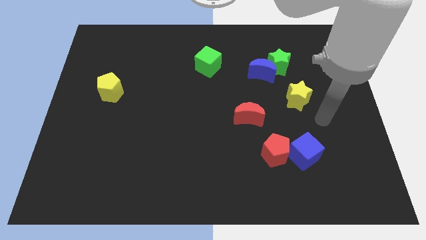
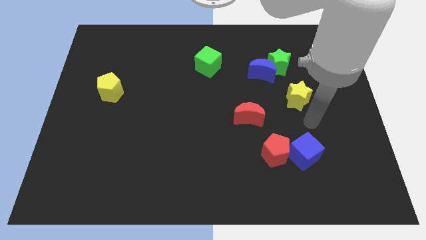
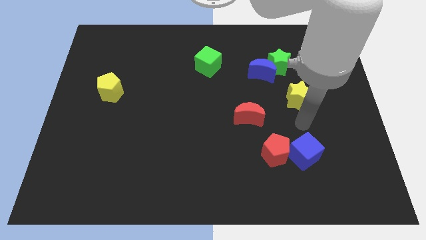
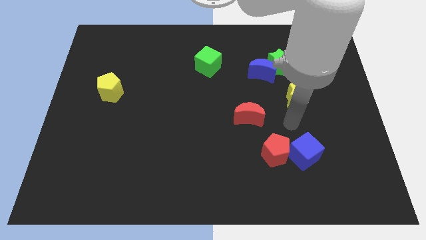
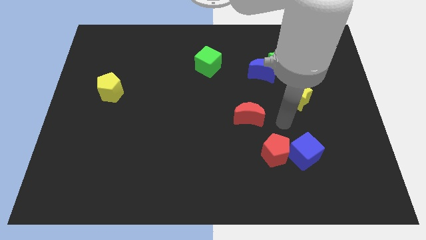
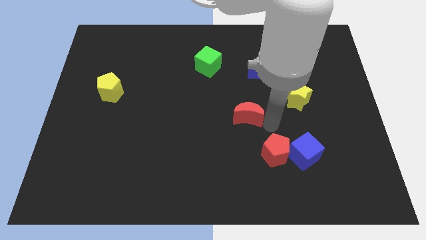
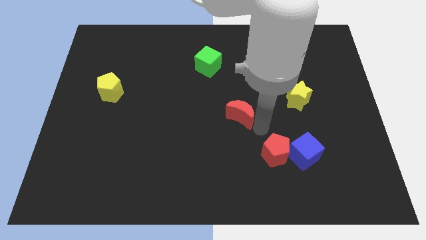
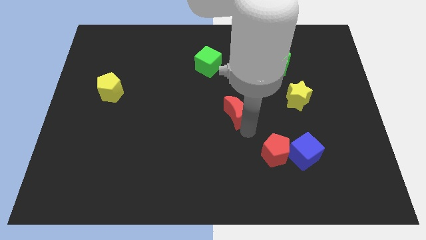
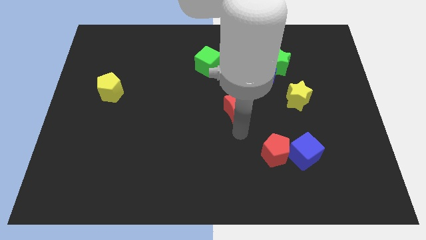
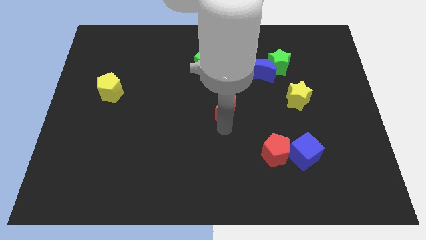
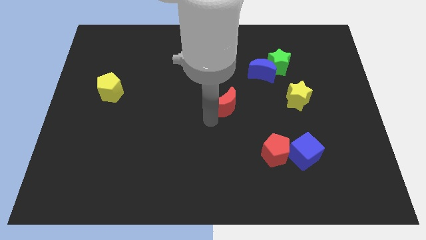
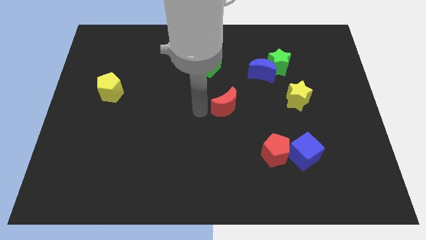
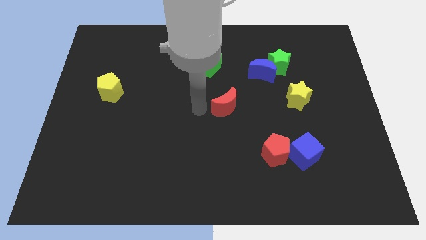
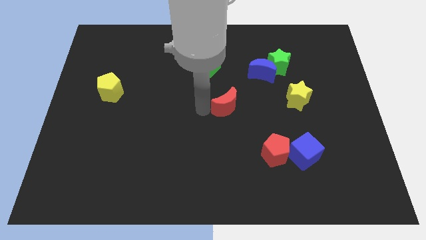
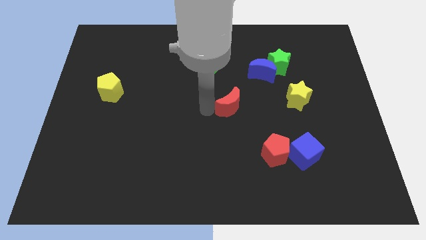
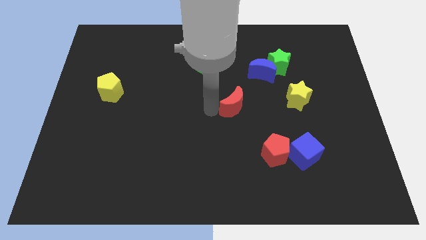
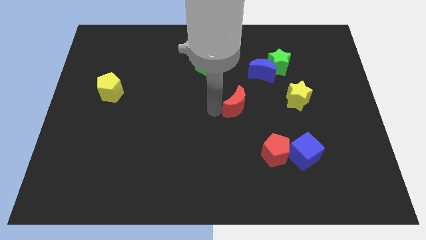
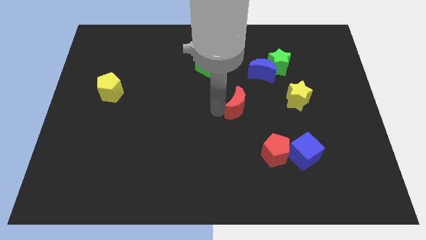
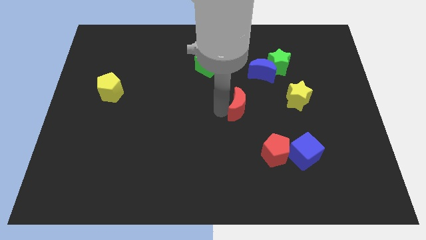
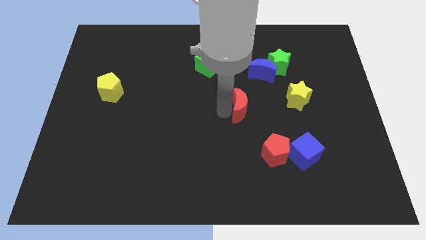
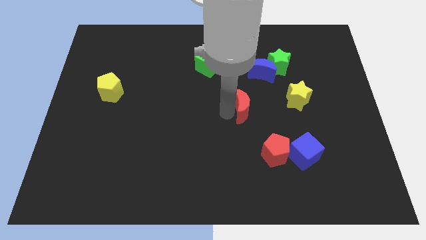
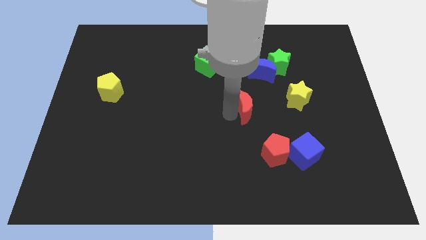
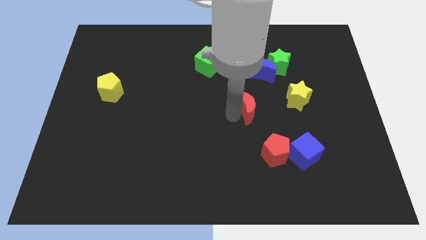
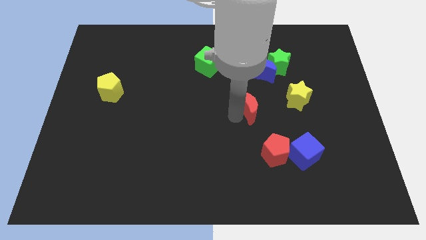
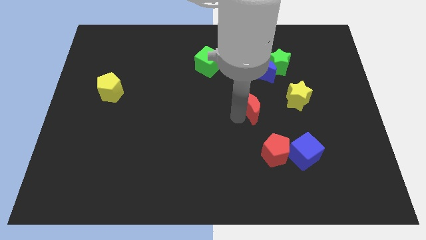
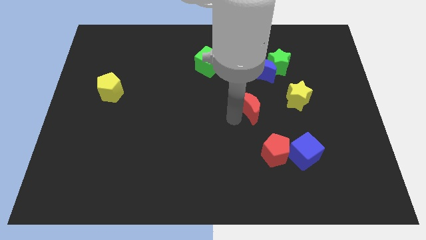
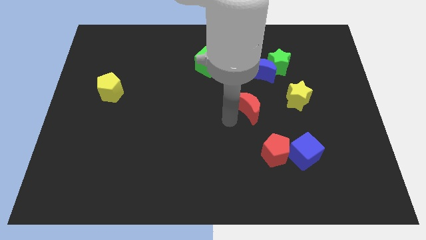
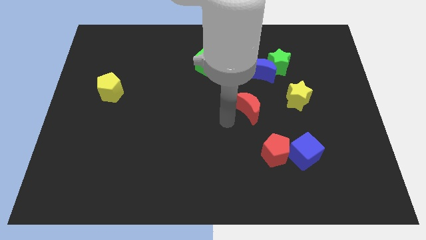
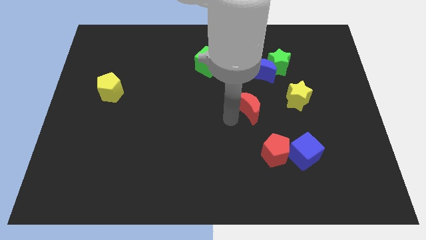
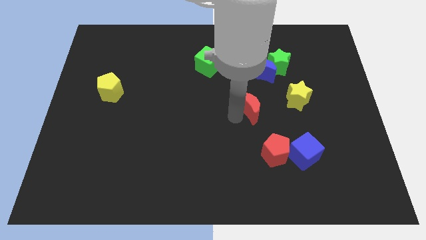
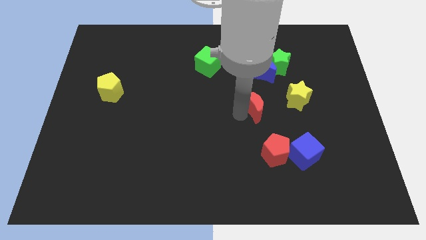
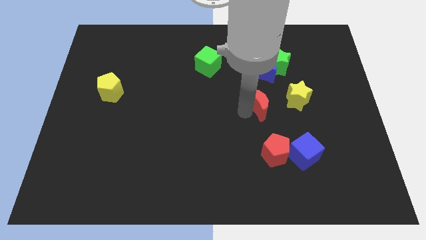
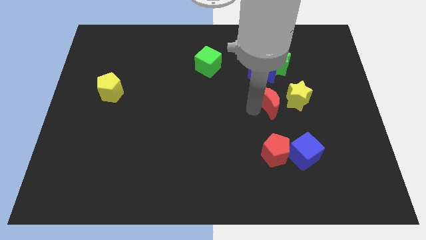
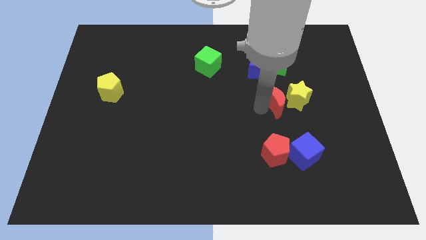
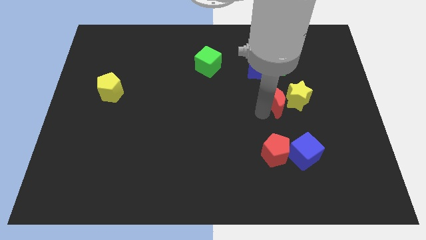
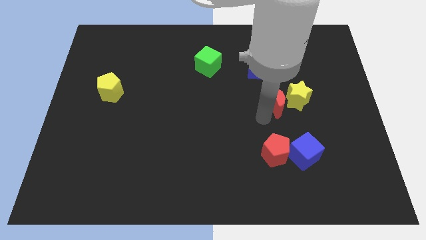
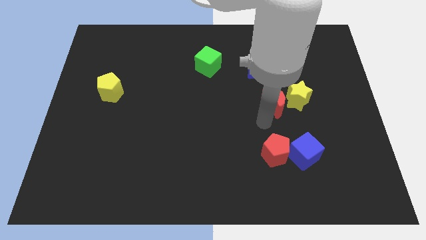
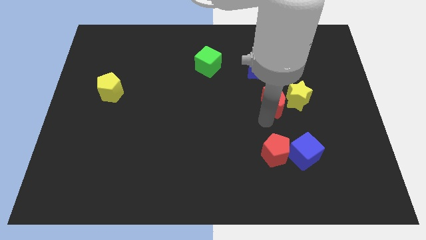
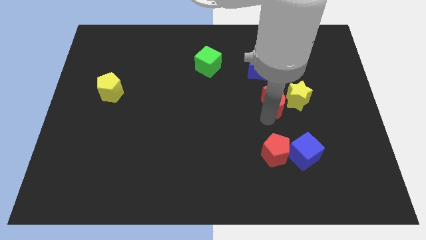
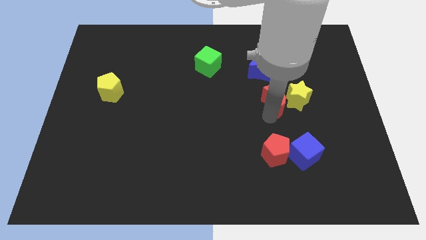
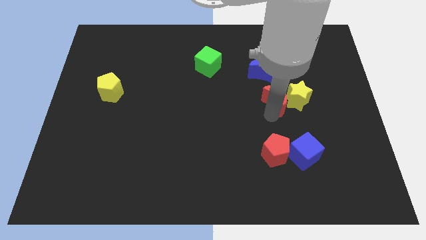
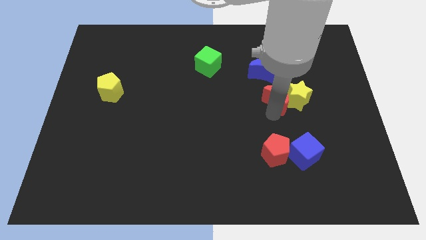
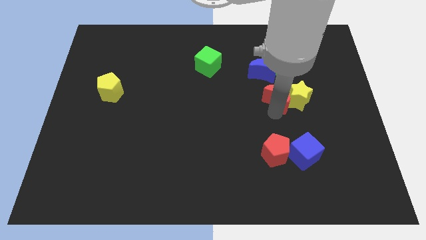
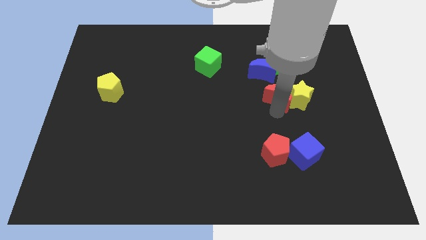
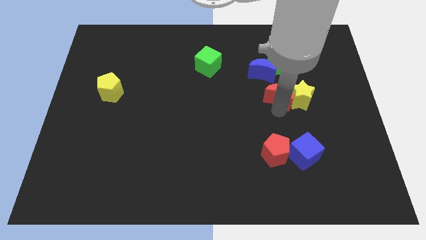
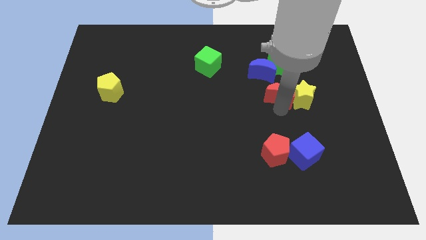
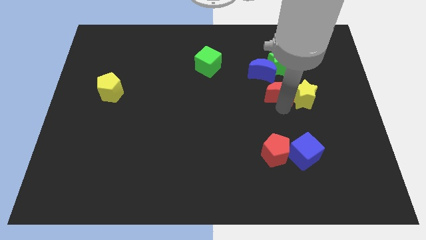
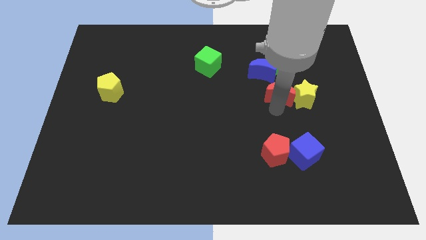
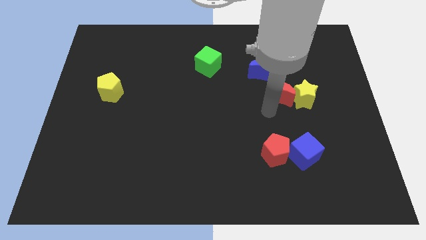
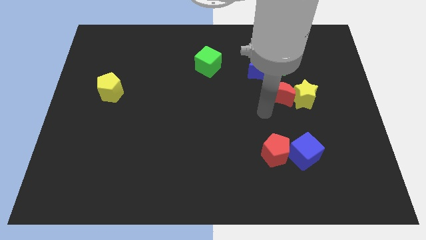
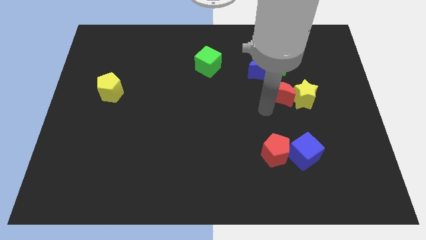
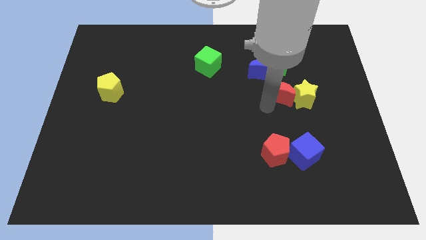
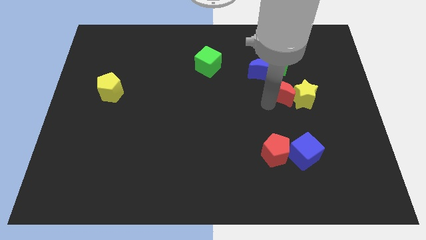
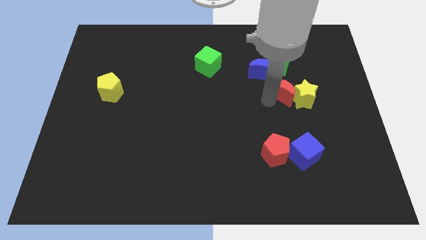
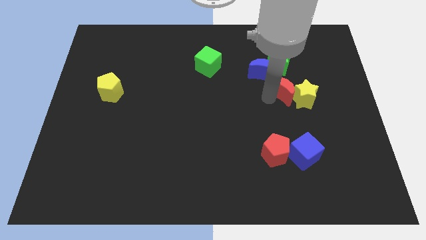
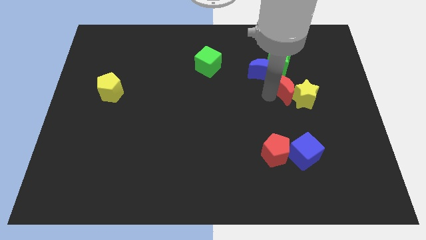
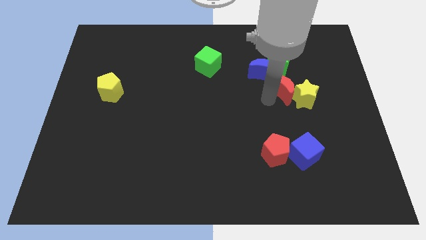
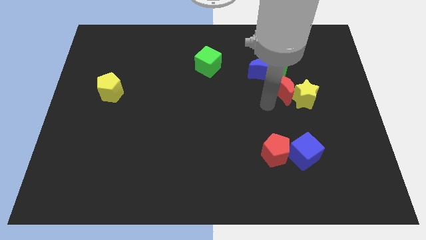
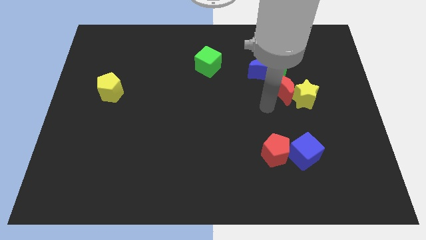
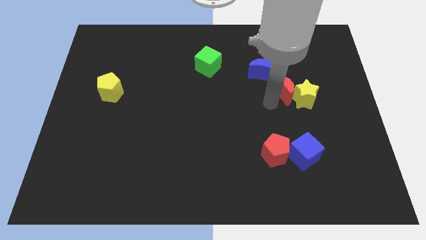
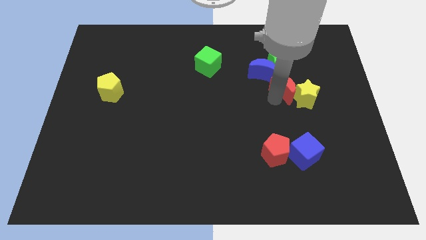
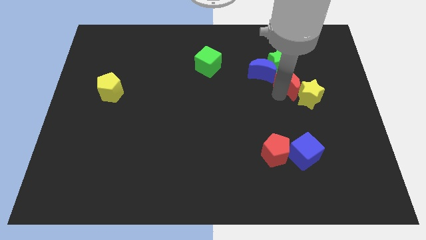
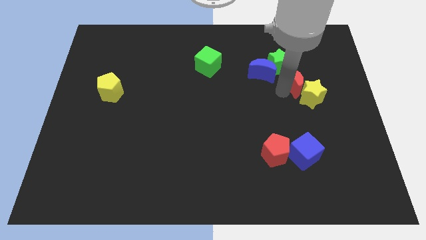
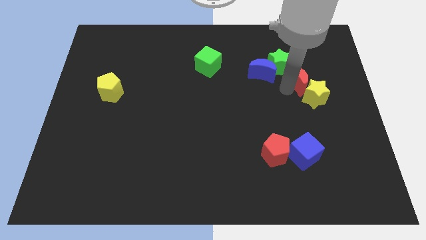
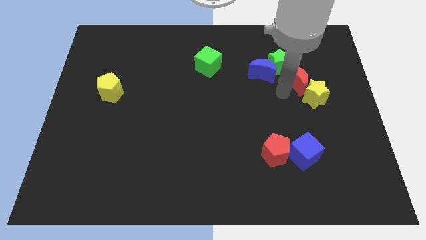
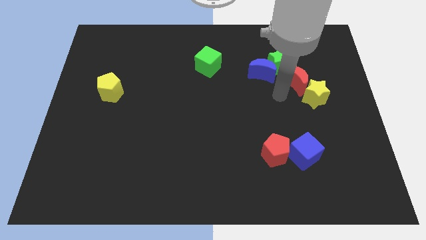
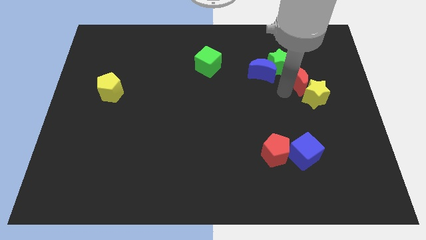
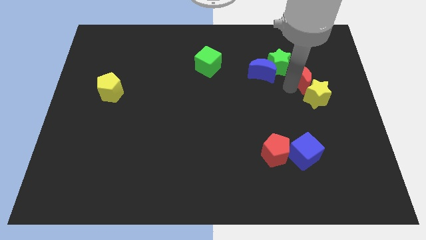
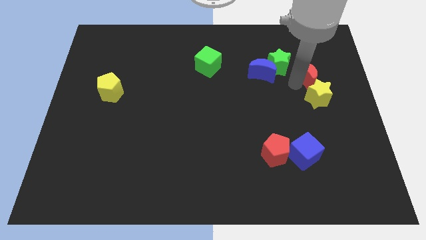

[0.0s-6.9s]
move the red moon just right of the green star

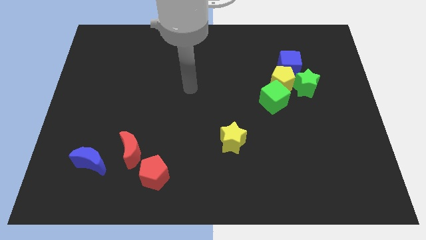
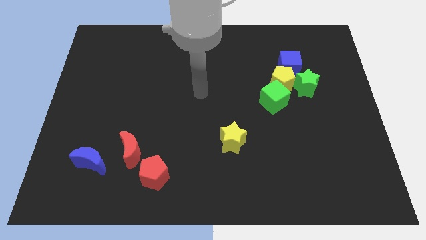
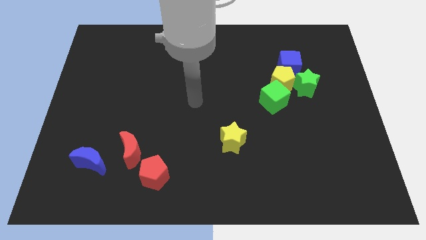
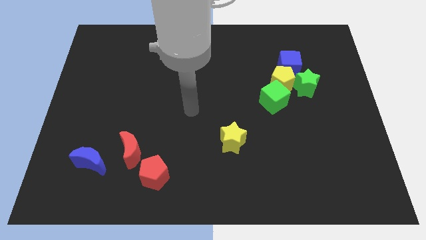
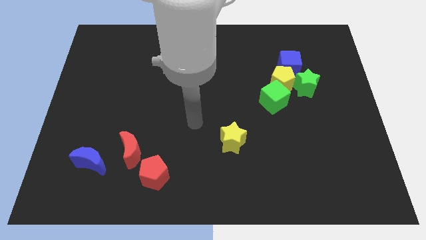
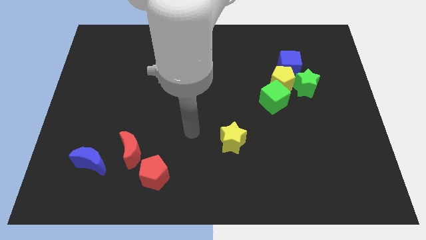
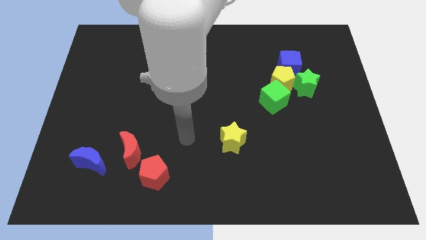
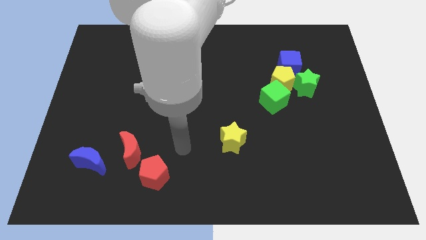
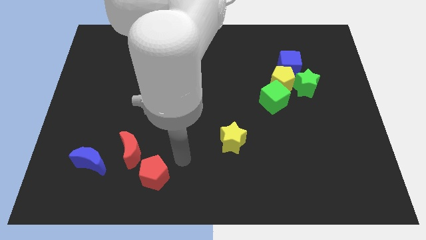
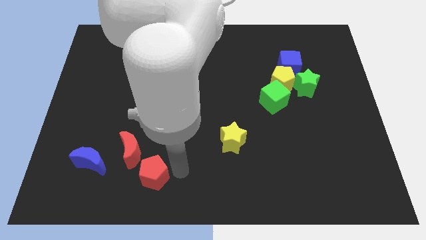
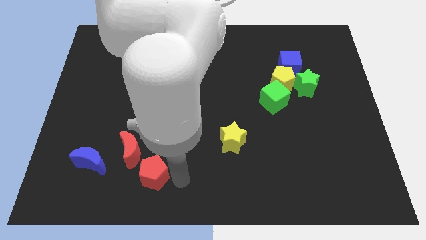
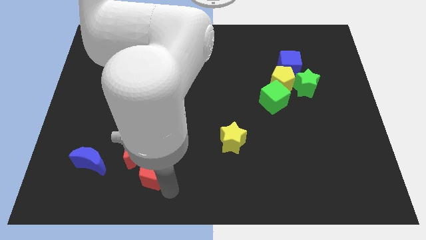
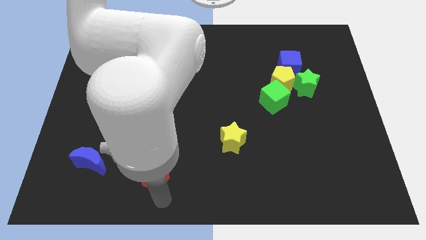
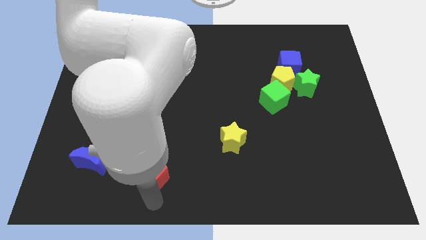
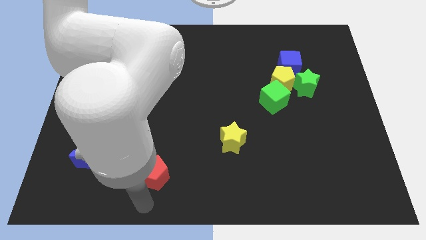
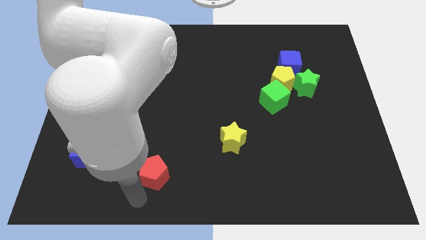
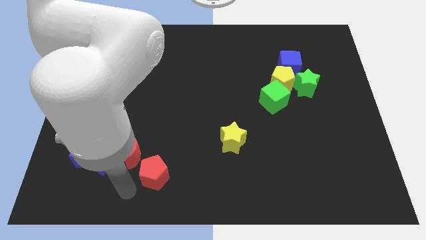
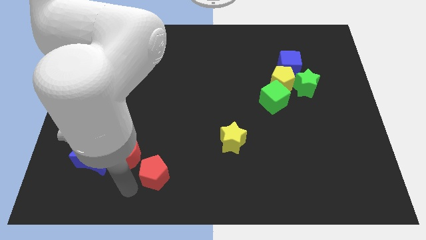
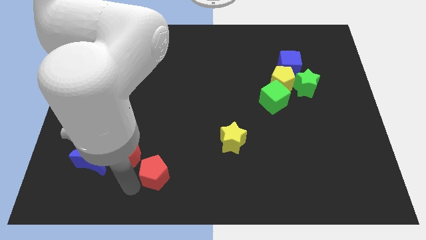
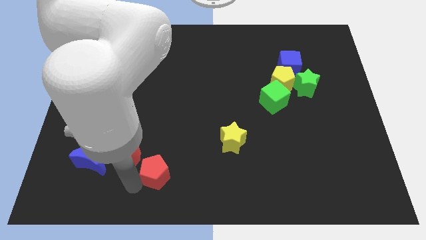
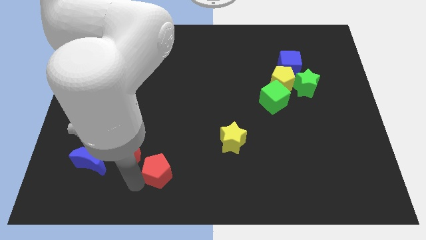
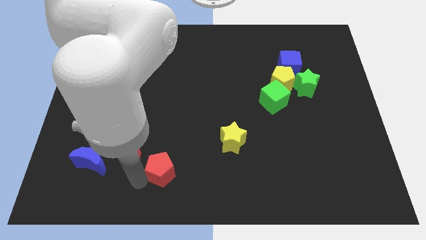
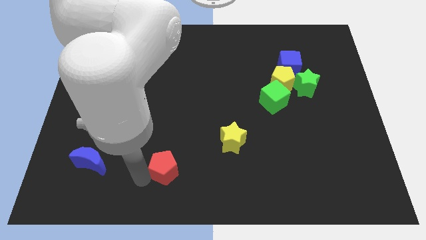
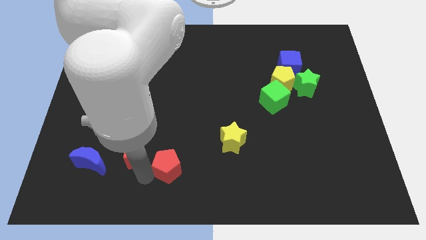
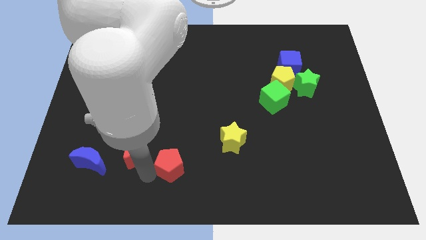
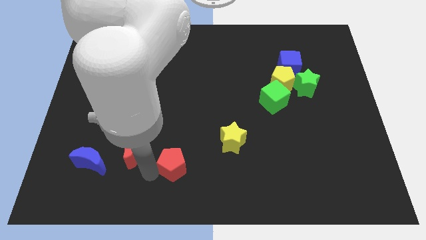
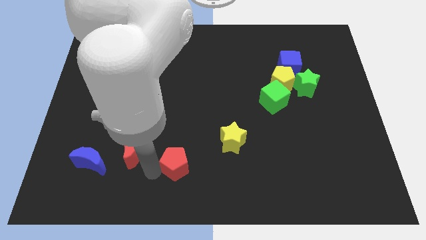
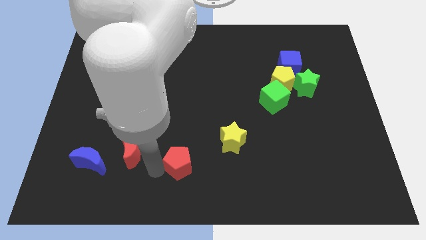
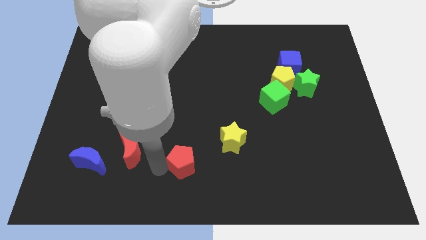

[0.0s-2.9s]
push the red pentagon to the bottom left of the yellow star
